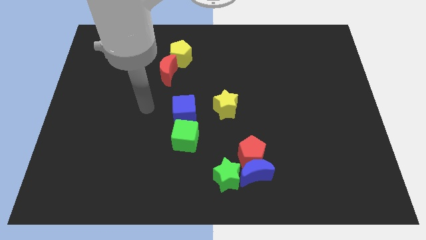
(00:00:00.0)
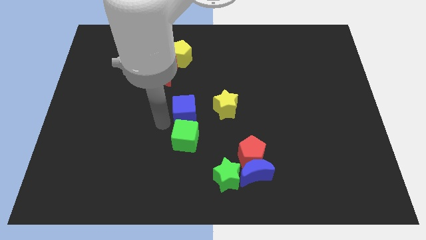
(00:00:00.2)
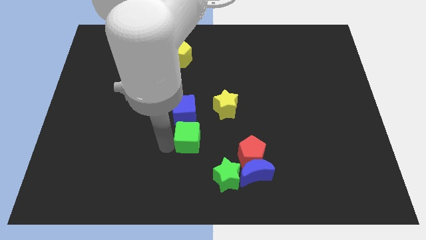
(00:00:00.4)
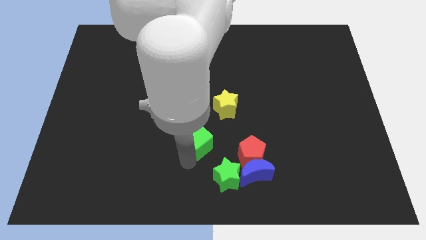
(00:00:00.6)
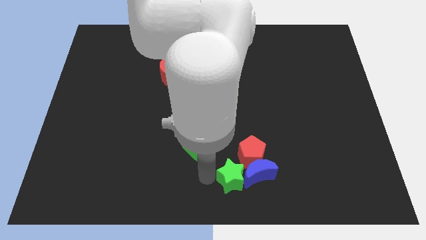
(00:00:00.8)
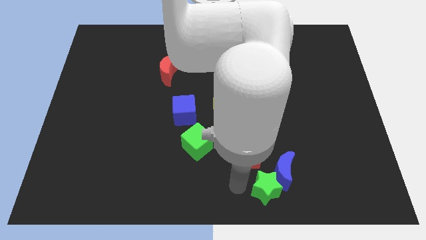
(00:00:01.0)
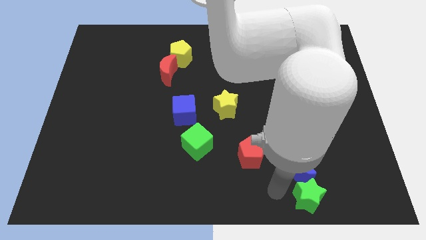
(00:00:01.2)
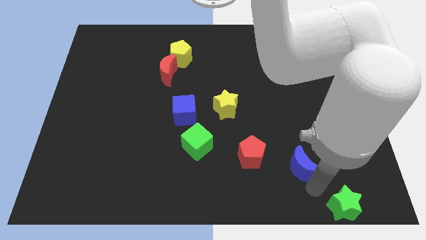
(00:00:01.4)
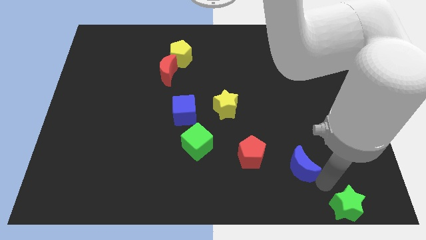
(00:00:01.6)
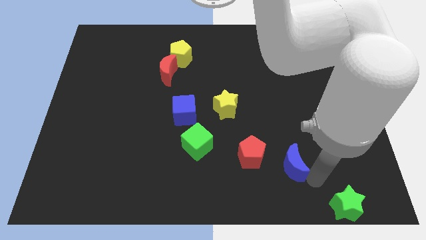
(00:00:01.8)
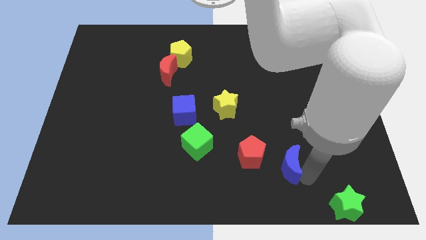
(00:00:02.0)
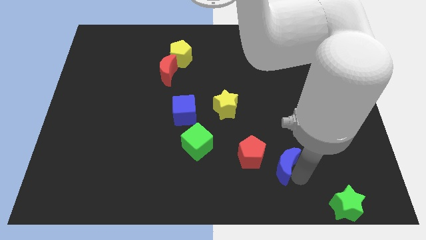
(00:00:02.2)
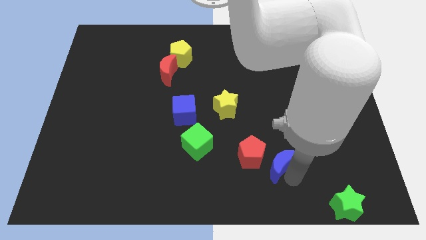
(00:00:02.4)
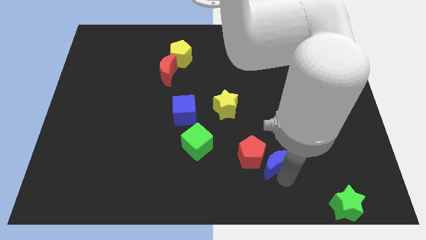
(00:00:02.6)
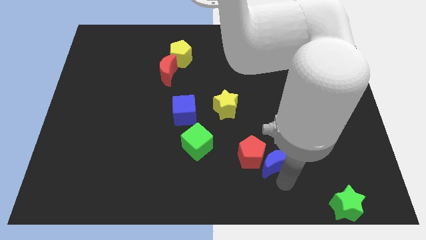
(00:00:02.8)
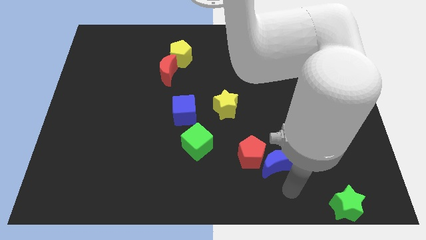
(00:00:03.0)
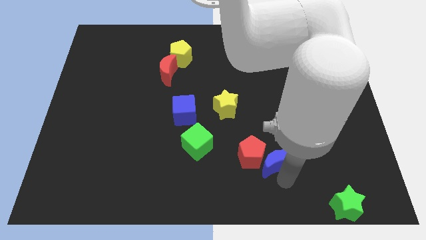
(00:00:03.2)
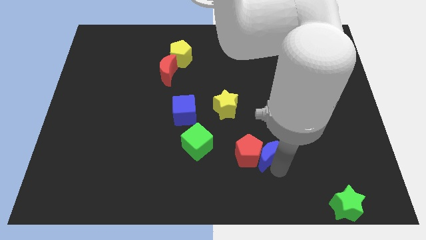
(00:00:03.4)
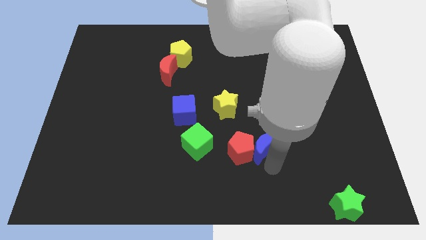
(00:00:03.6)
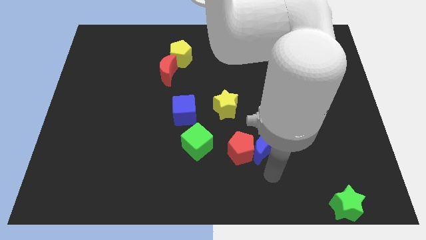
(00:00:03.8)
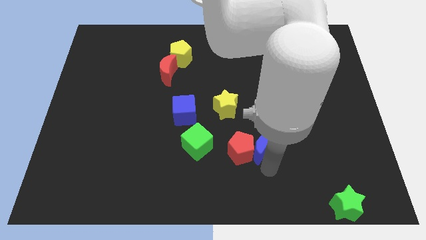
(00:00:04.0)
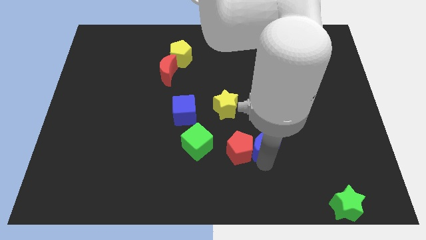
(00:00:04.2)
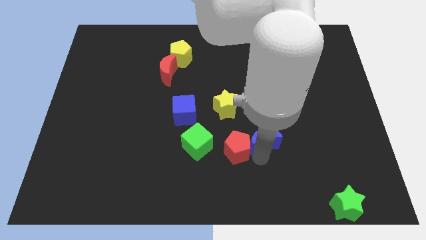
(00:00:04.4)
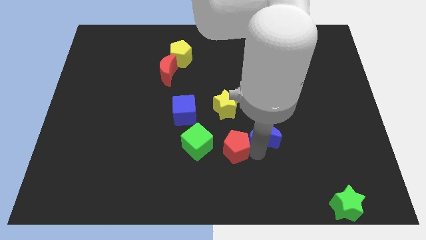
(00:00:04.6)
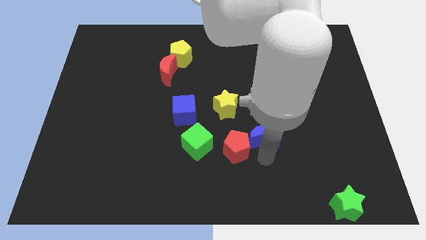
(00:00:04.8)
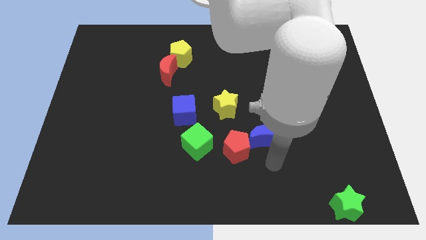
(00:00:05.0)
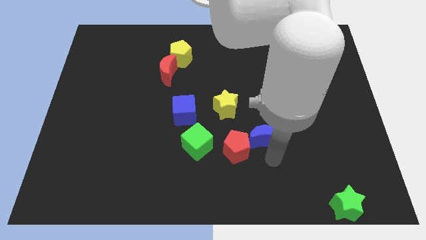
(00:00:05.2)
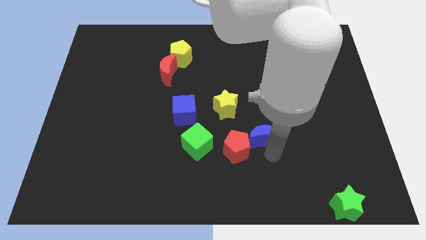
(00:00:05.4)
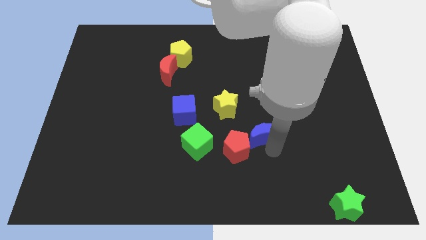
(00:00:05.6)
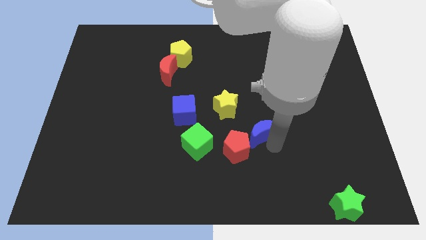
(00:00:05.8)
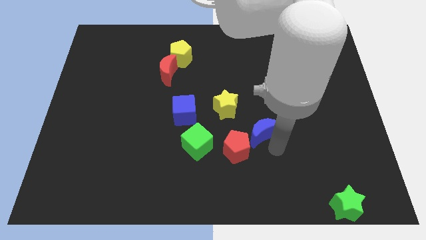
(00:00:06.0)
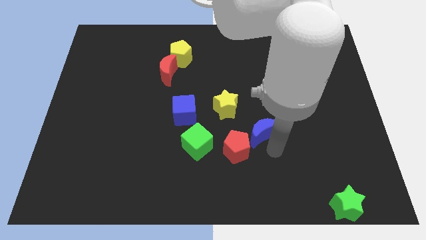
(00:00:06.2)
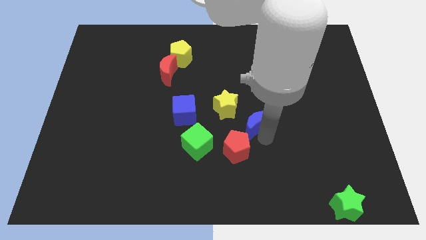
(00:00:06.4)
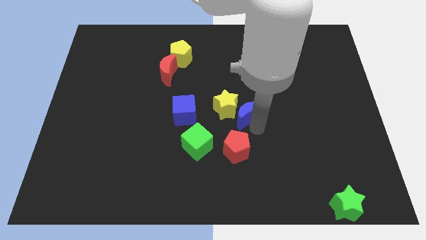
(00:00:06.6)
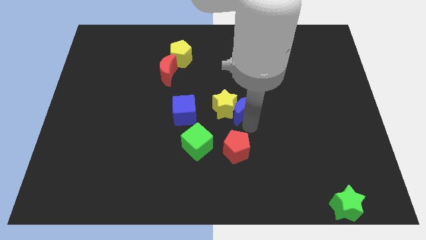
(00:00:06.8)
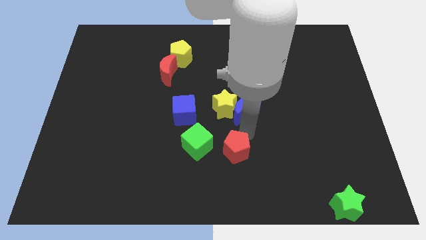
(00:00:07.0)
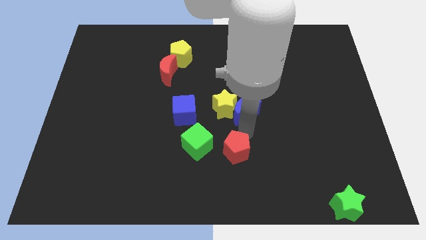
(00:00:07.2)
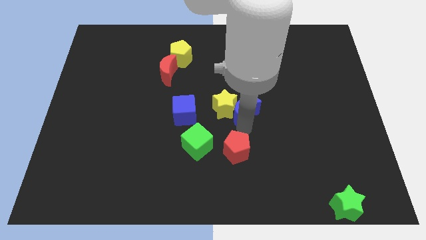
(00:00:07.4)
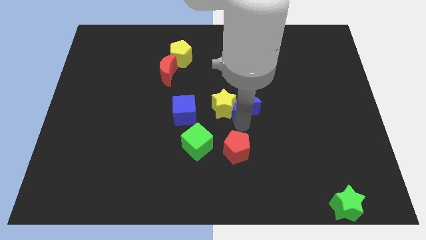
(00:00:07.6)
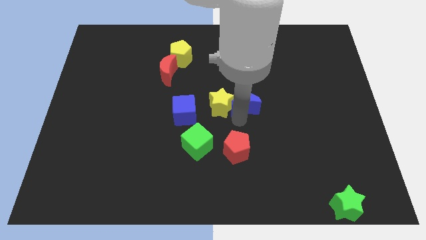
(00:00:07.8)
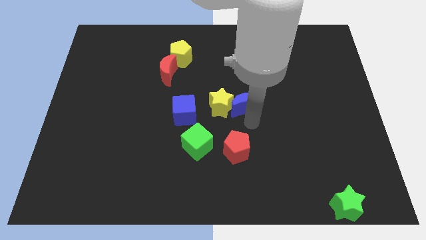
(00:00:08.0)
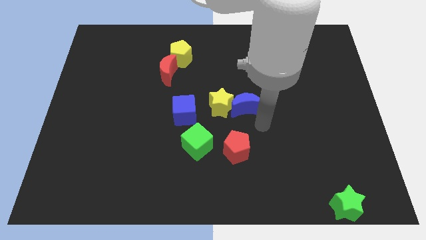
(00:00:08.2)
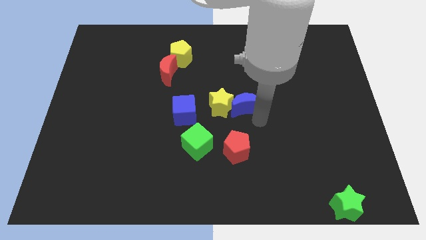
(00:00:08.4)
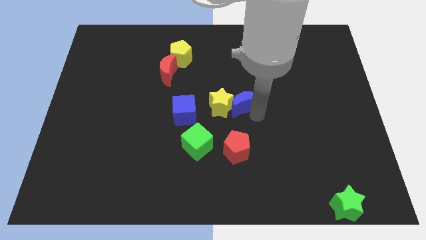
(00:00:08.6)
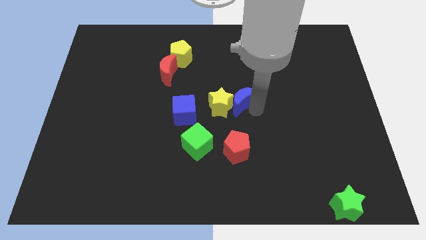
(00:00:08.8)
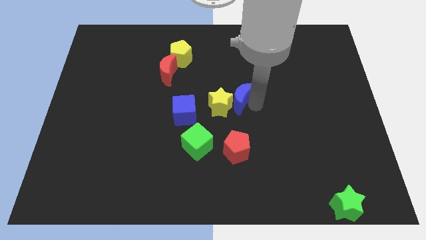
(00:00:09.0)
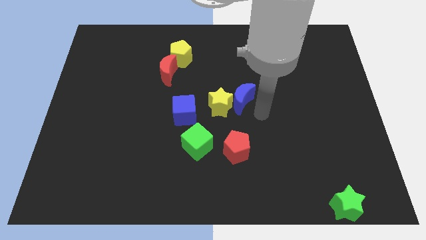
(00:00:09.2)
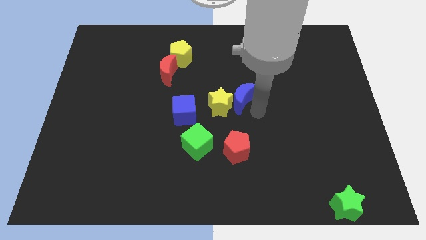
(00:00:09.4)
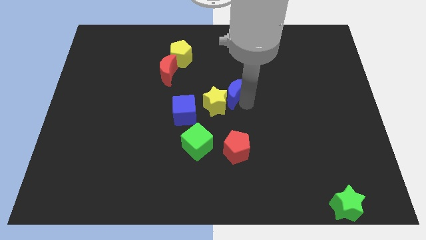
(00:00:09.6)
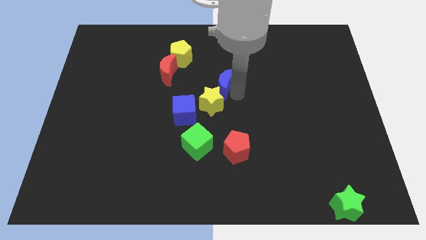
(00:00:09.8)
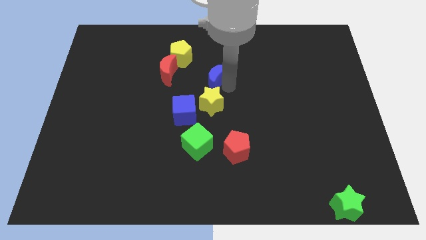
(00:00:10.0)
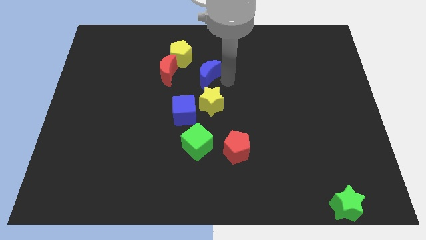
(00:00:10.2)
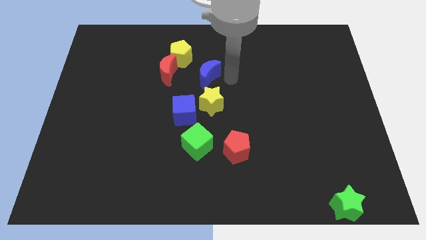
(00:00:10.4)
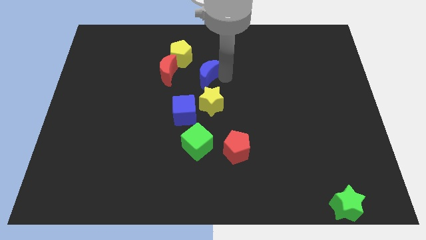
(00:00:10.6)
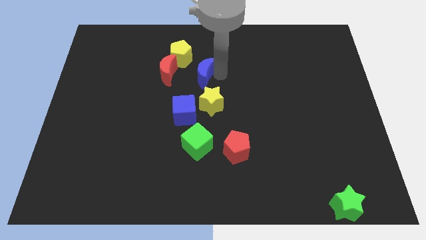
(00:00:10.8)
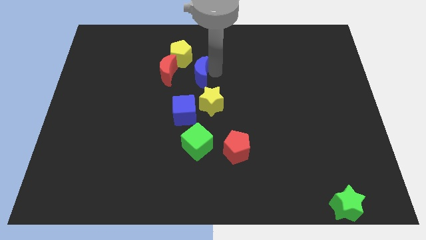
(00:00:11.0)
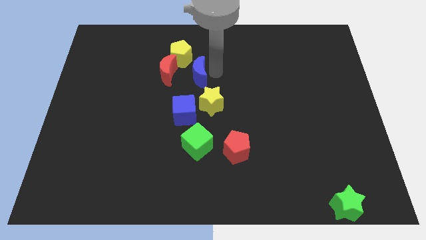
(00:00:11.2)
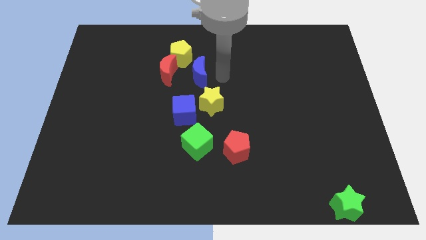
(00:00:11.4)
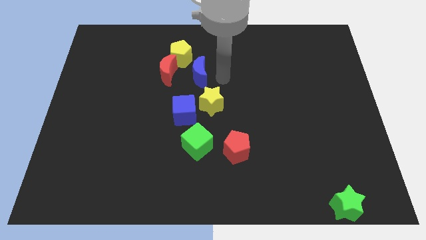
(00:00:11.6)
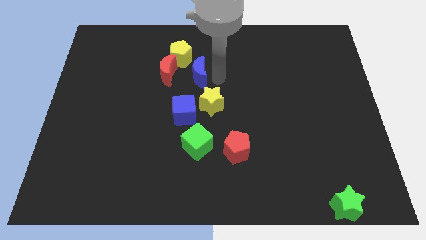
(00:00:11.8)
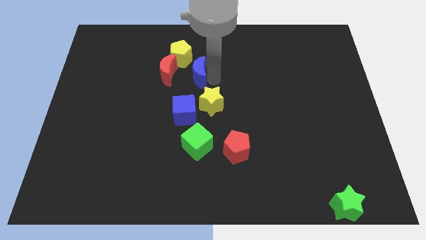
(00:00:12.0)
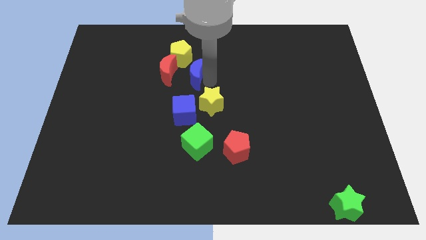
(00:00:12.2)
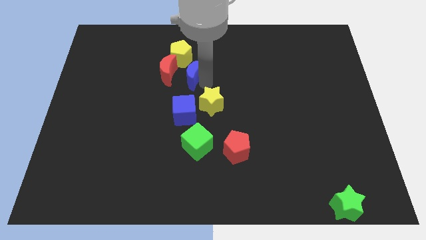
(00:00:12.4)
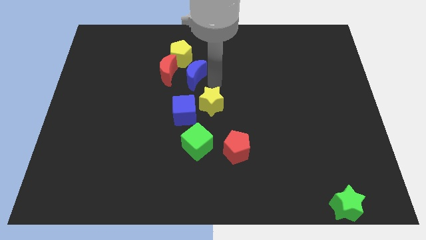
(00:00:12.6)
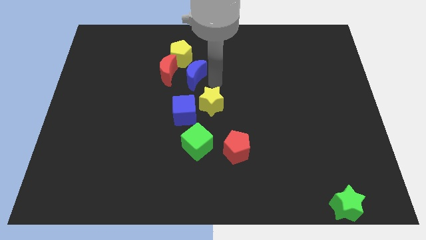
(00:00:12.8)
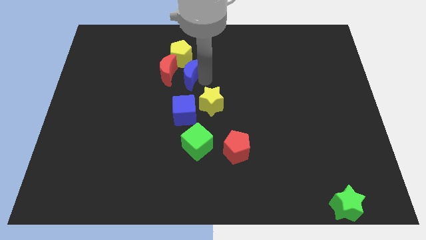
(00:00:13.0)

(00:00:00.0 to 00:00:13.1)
put the blue moon next to the red moon
